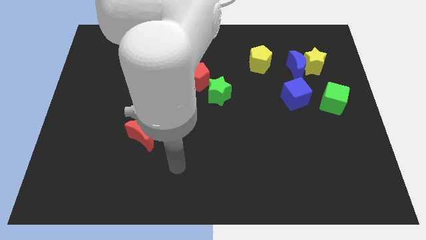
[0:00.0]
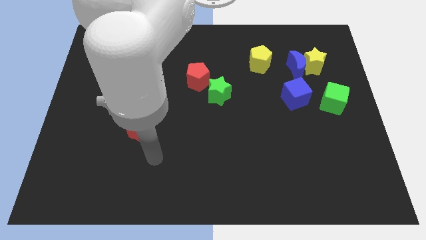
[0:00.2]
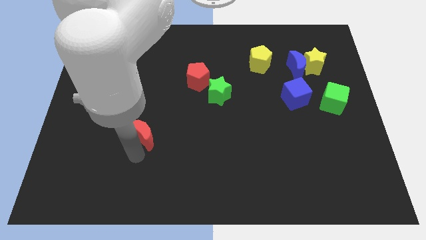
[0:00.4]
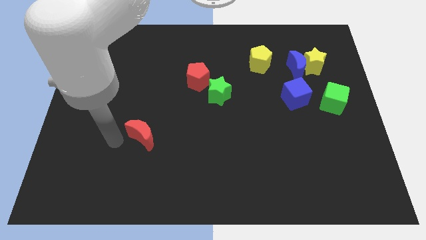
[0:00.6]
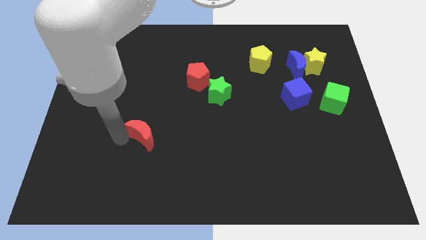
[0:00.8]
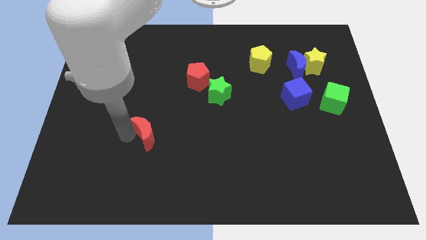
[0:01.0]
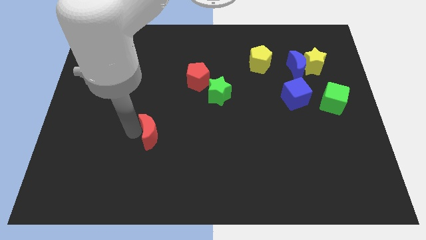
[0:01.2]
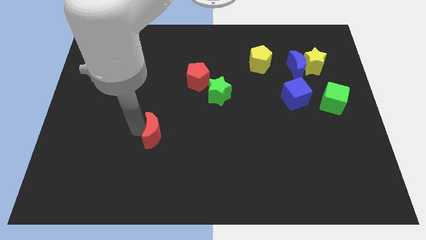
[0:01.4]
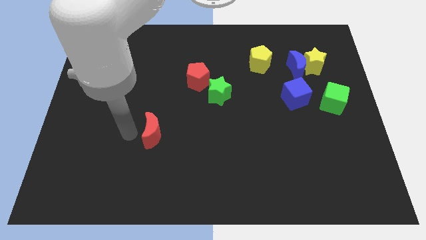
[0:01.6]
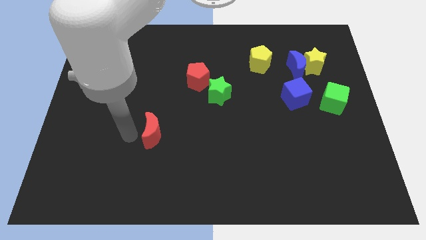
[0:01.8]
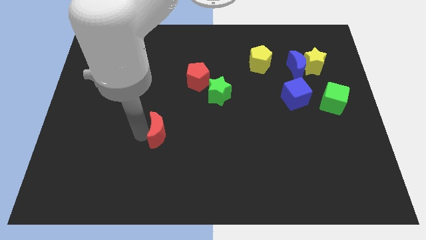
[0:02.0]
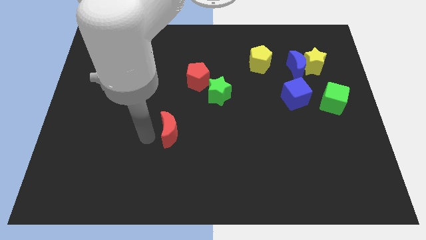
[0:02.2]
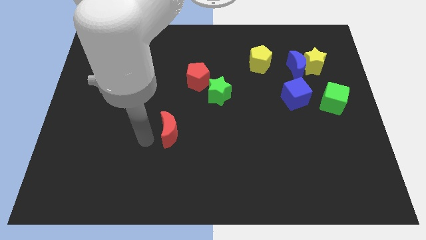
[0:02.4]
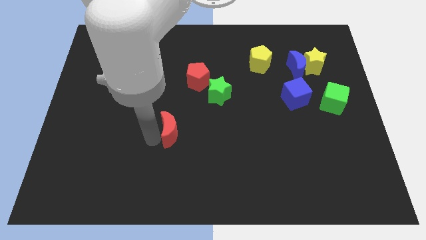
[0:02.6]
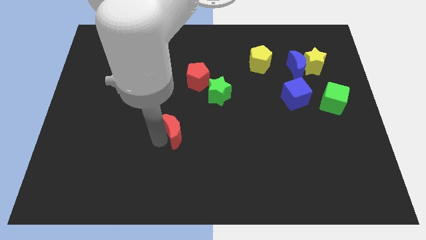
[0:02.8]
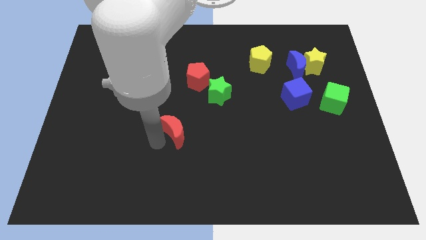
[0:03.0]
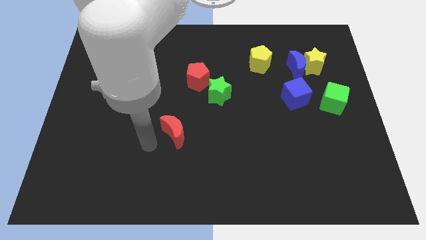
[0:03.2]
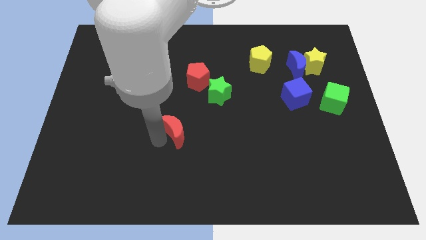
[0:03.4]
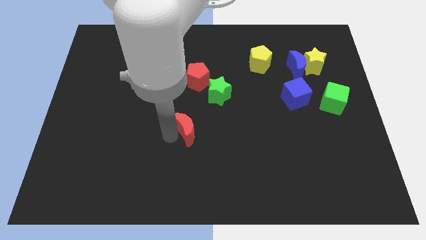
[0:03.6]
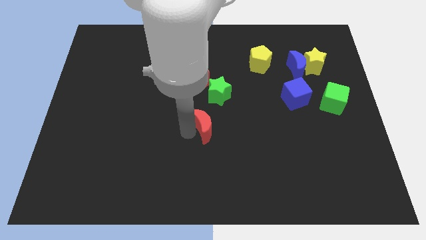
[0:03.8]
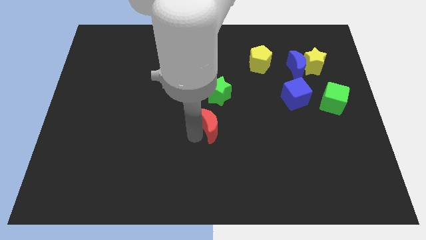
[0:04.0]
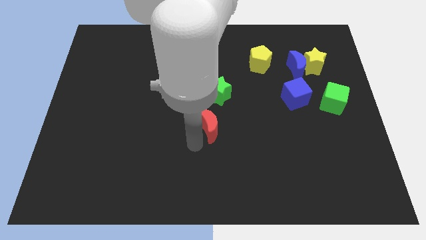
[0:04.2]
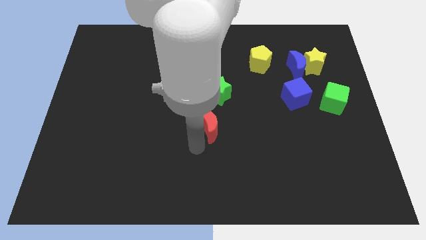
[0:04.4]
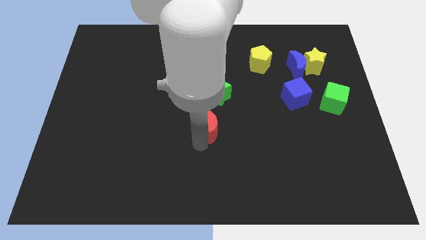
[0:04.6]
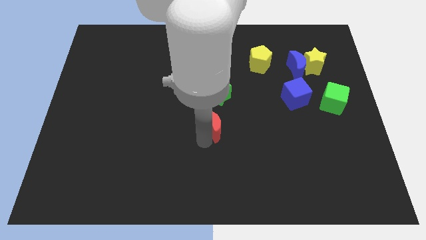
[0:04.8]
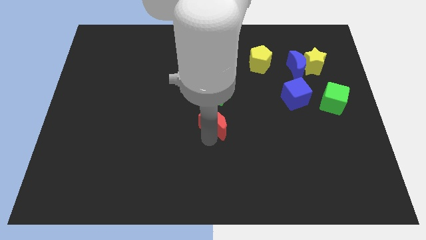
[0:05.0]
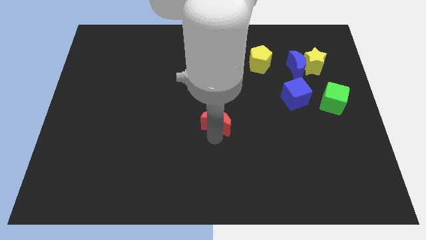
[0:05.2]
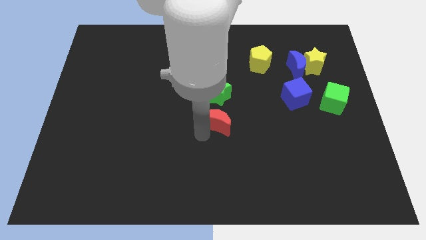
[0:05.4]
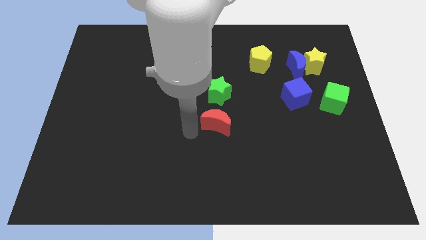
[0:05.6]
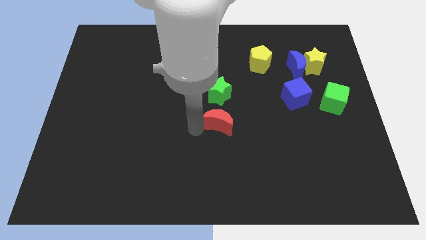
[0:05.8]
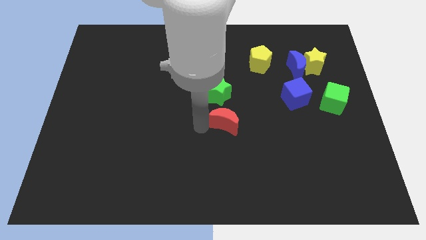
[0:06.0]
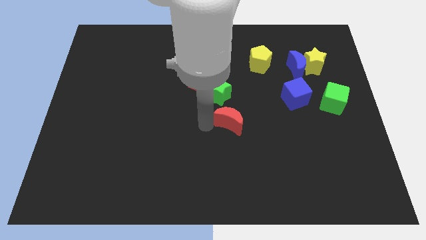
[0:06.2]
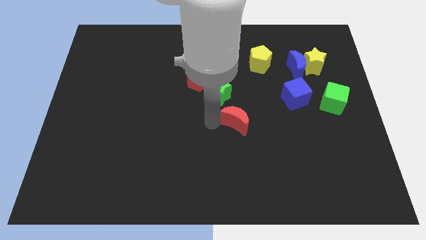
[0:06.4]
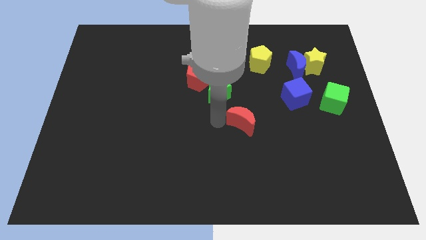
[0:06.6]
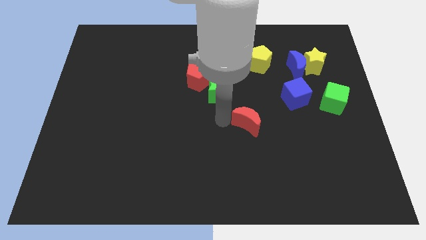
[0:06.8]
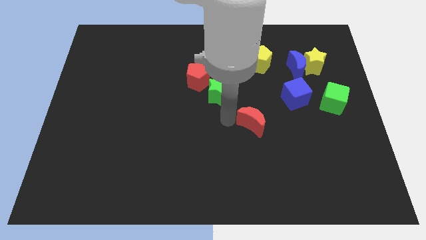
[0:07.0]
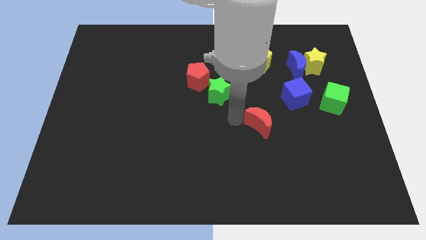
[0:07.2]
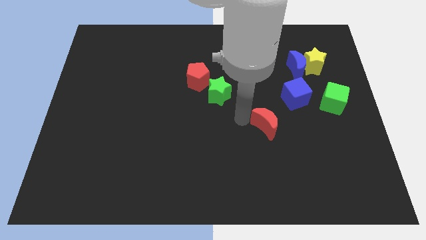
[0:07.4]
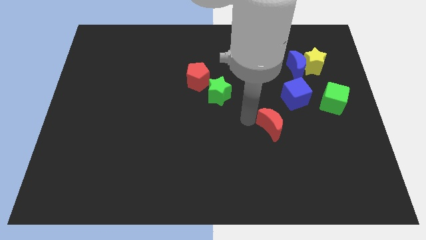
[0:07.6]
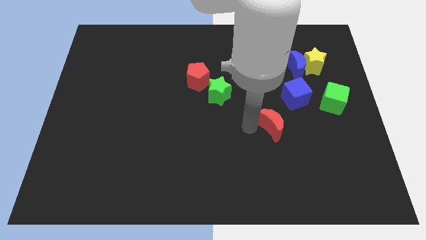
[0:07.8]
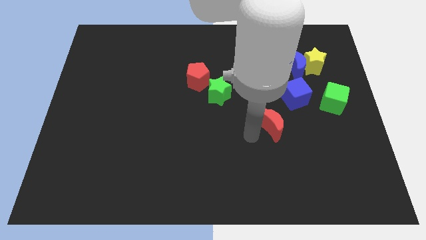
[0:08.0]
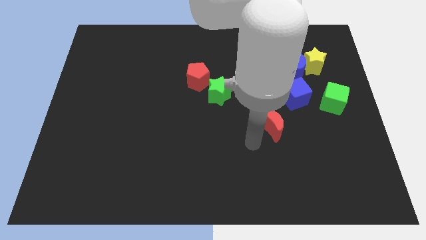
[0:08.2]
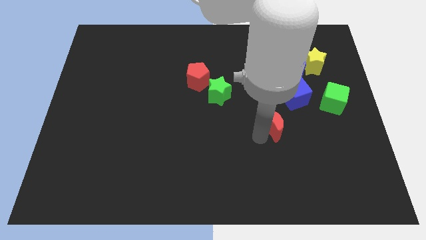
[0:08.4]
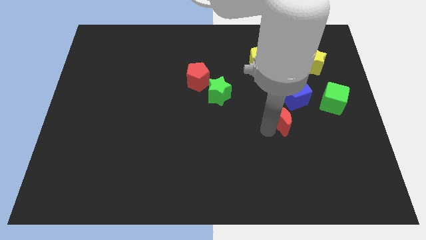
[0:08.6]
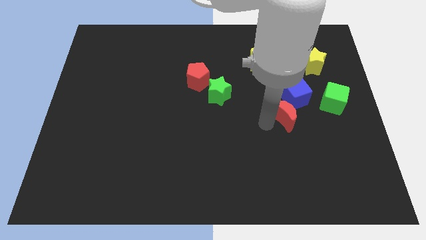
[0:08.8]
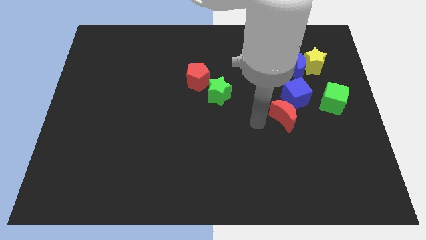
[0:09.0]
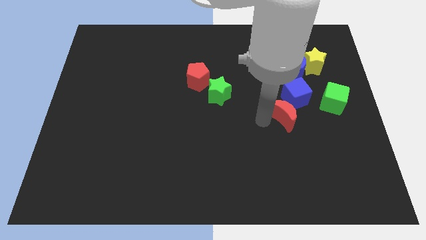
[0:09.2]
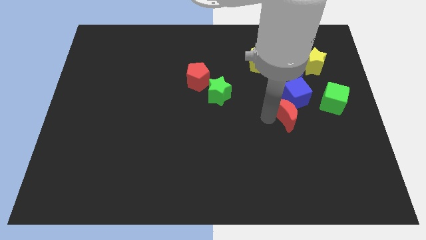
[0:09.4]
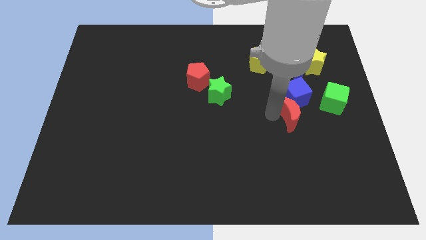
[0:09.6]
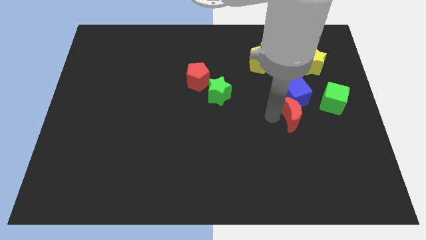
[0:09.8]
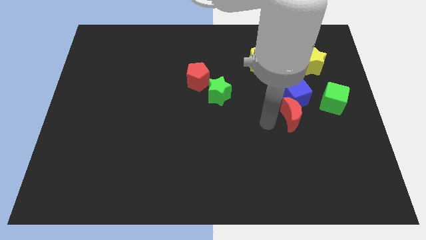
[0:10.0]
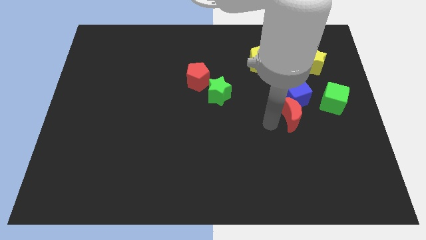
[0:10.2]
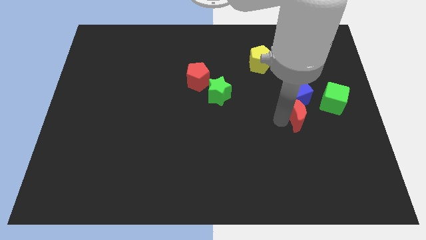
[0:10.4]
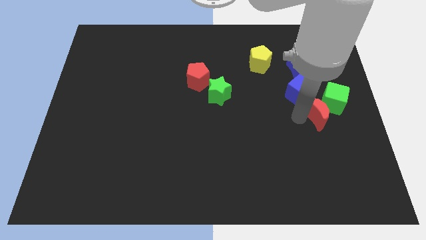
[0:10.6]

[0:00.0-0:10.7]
push the red moon close to the green cube

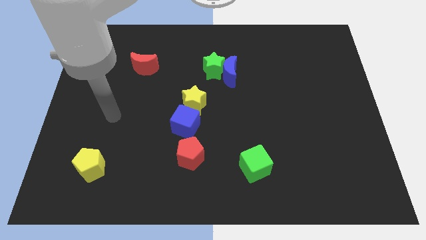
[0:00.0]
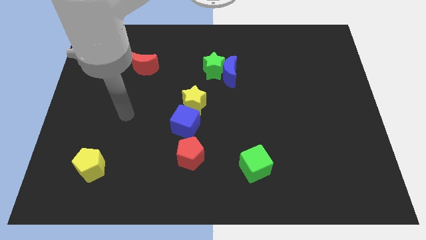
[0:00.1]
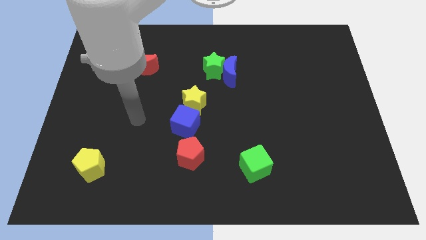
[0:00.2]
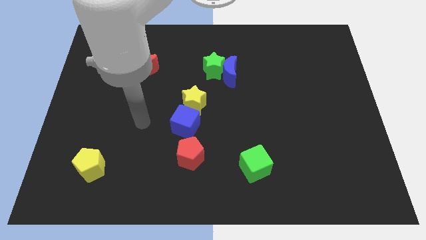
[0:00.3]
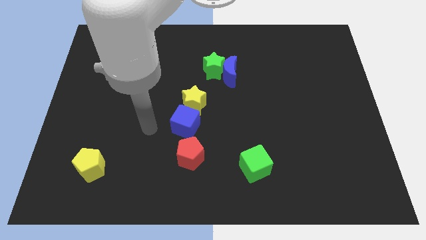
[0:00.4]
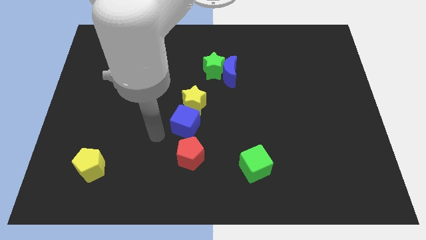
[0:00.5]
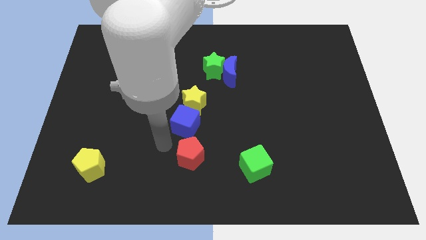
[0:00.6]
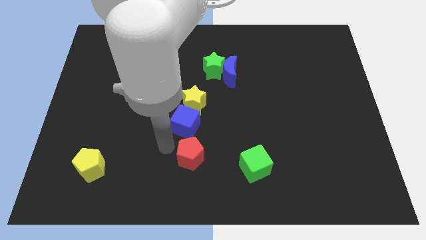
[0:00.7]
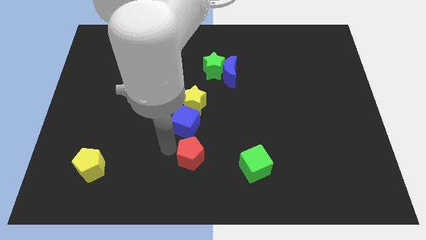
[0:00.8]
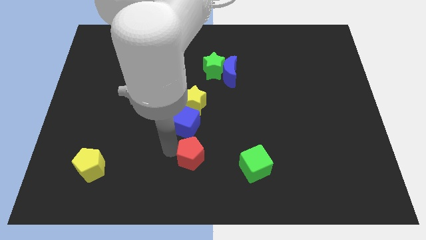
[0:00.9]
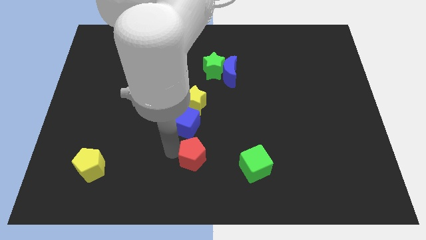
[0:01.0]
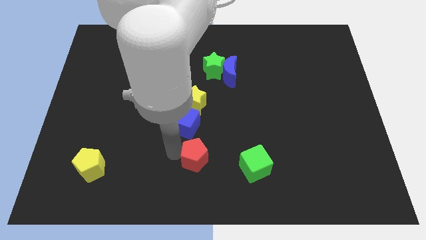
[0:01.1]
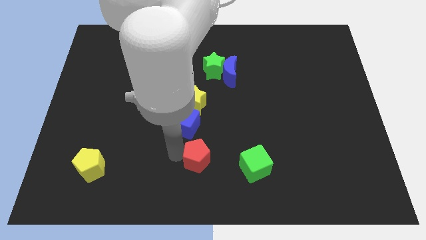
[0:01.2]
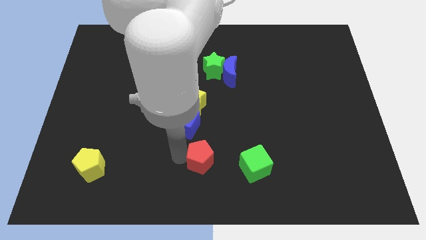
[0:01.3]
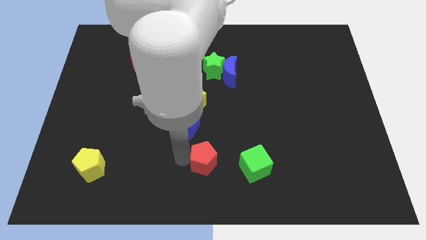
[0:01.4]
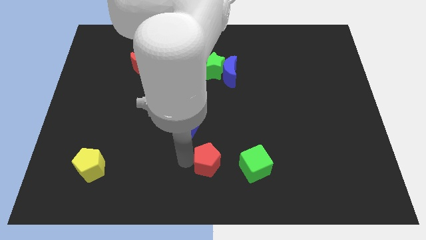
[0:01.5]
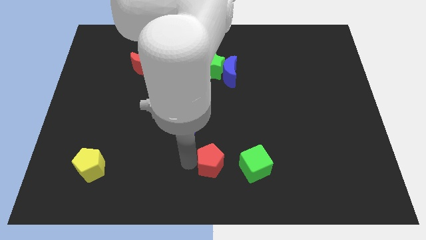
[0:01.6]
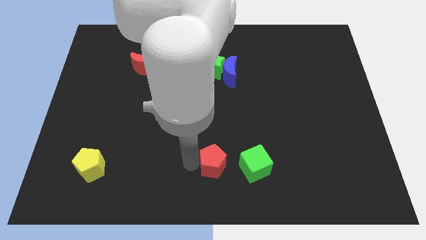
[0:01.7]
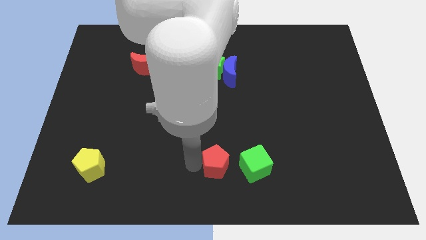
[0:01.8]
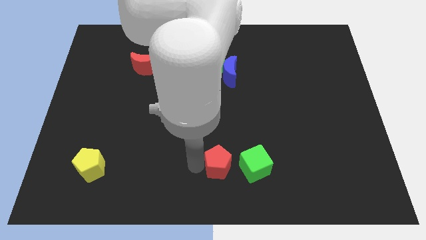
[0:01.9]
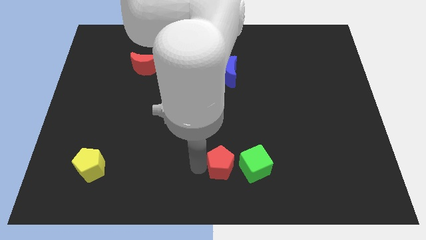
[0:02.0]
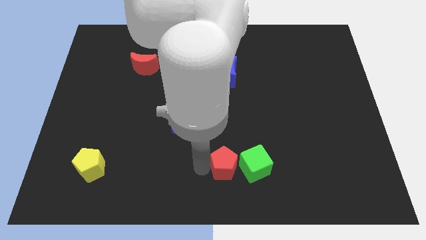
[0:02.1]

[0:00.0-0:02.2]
slide the red pentagon close to the green cube
